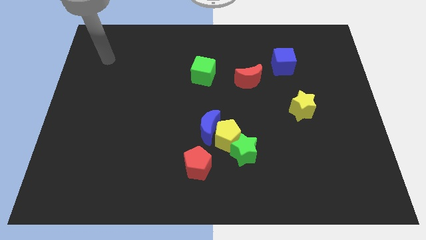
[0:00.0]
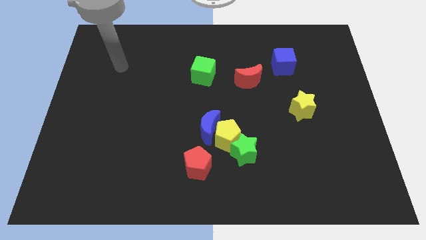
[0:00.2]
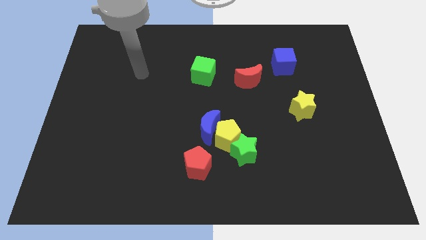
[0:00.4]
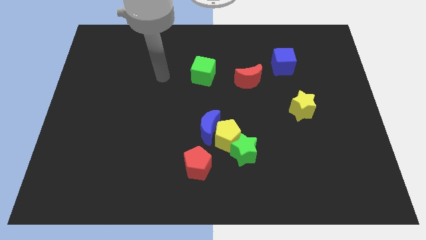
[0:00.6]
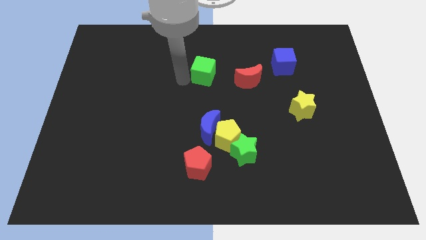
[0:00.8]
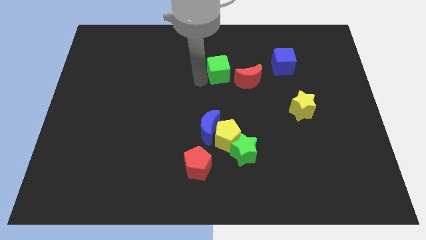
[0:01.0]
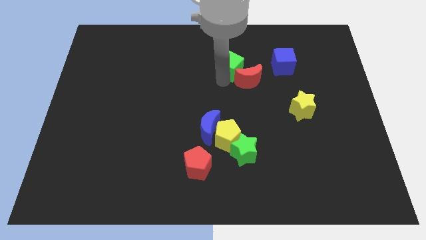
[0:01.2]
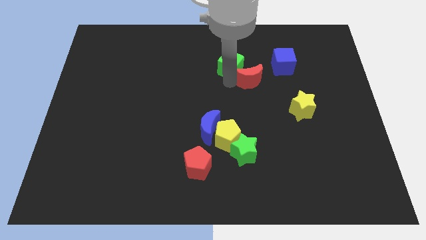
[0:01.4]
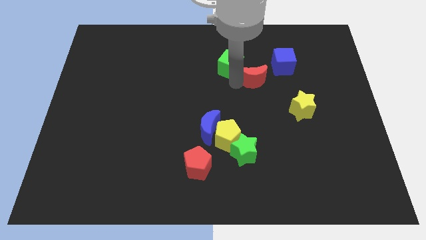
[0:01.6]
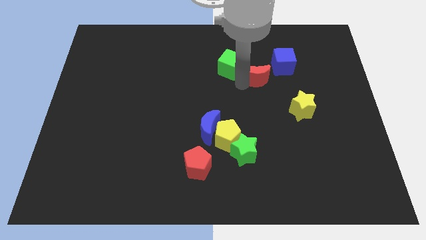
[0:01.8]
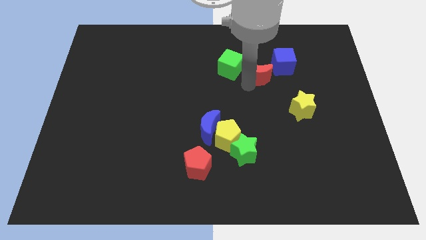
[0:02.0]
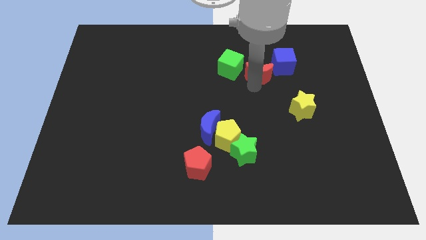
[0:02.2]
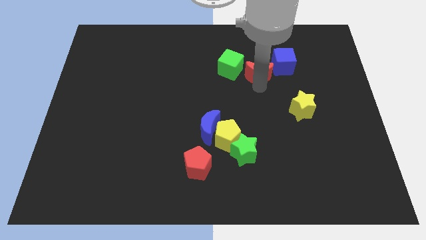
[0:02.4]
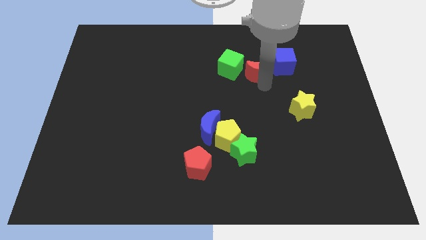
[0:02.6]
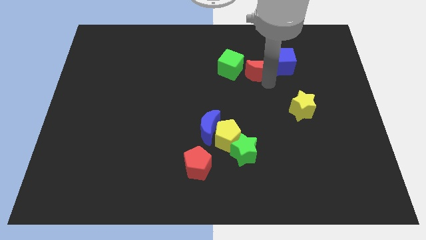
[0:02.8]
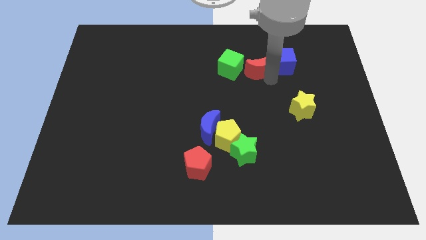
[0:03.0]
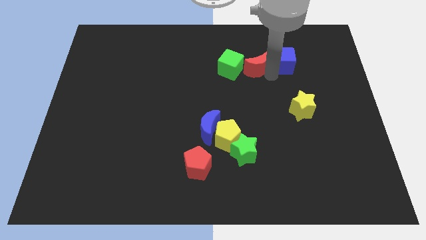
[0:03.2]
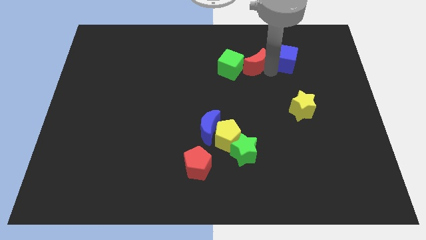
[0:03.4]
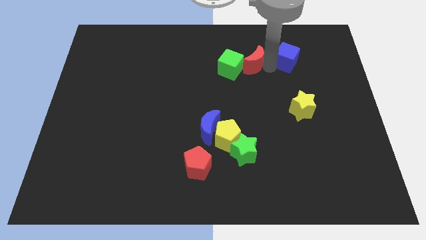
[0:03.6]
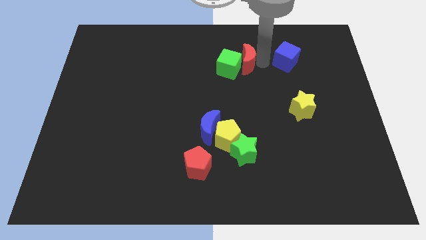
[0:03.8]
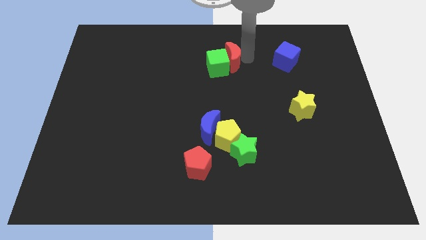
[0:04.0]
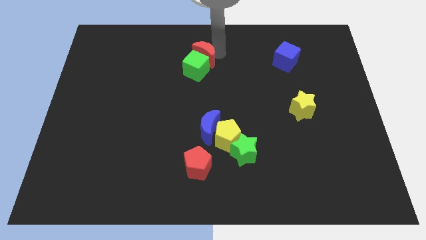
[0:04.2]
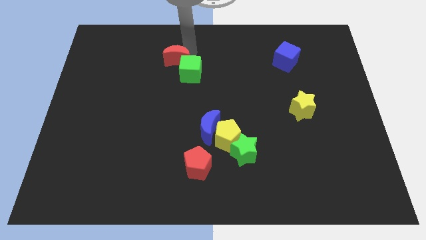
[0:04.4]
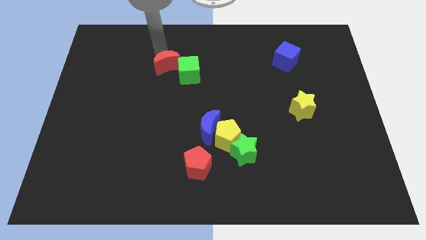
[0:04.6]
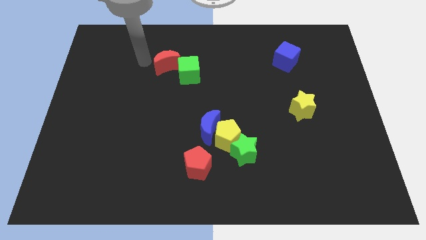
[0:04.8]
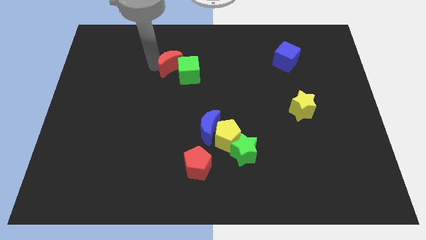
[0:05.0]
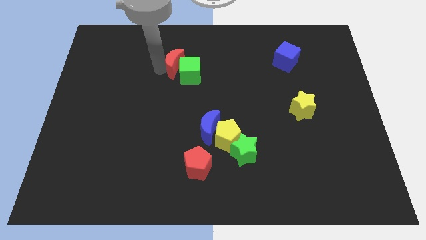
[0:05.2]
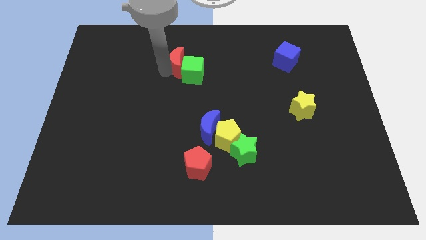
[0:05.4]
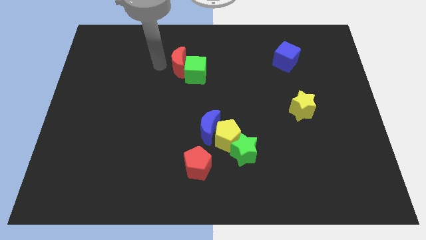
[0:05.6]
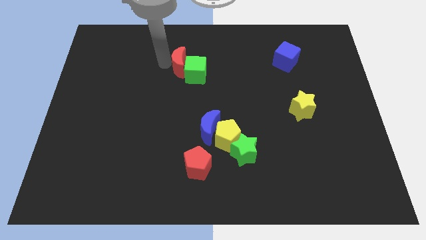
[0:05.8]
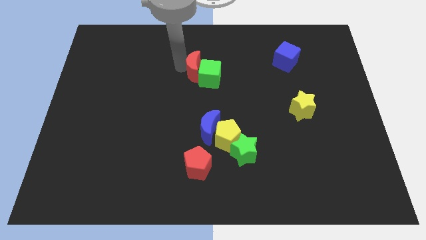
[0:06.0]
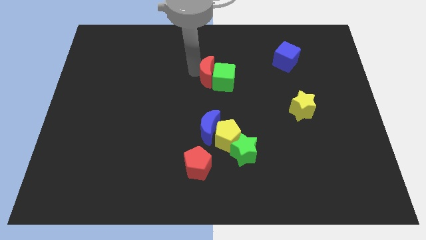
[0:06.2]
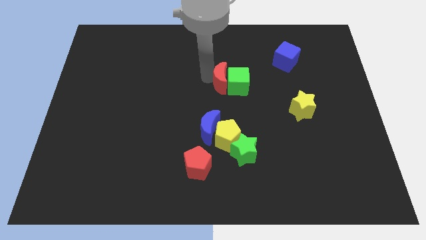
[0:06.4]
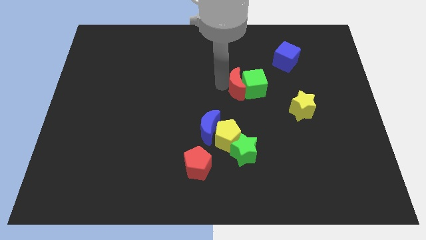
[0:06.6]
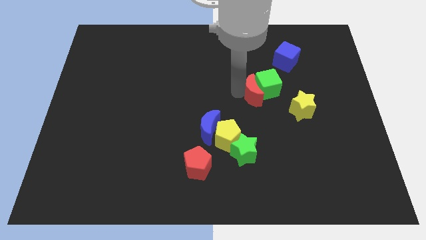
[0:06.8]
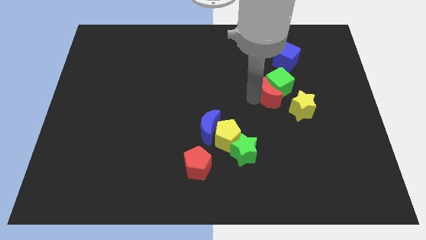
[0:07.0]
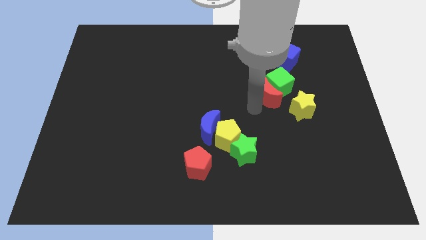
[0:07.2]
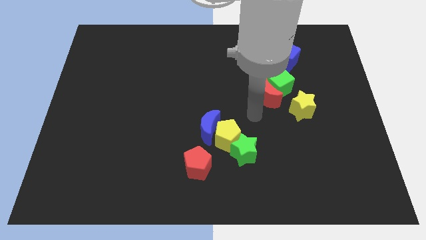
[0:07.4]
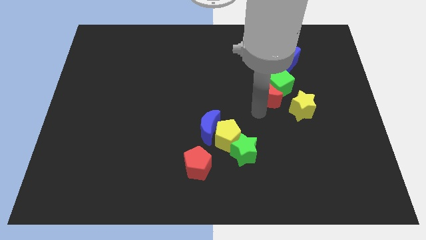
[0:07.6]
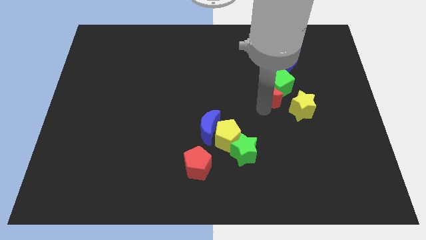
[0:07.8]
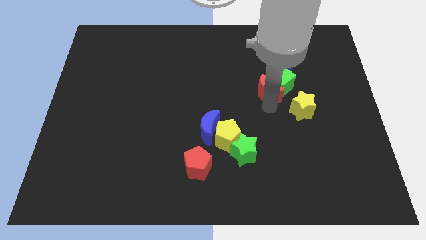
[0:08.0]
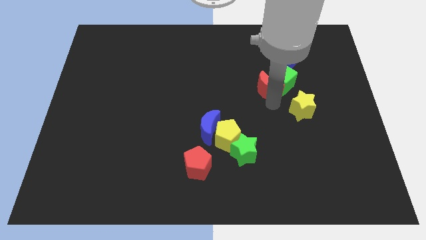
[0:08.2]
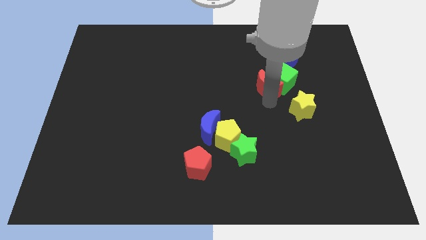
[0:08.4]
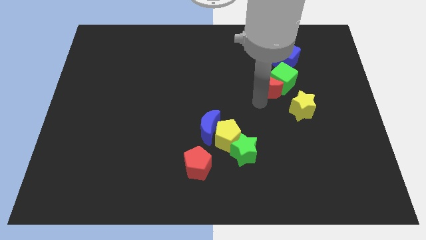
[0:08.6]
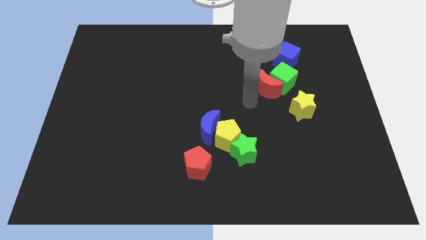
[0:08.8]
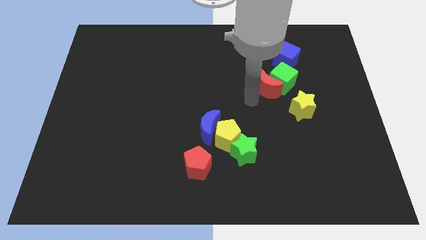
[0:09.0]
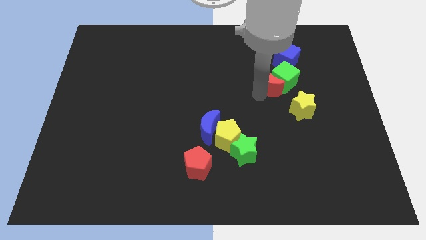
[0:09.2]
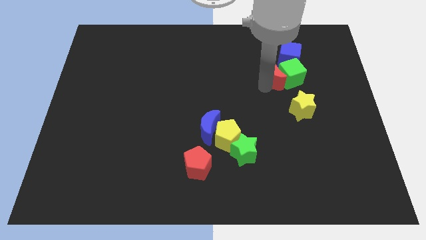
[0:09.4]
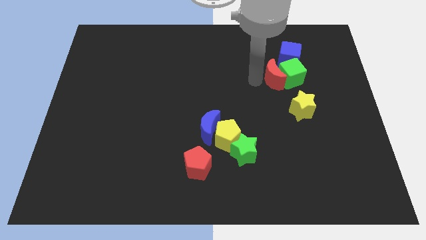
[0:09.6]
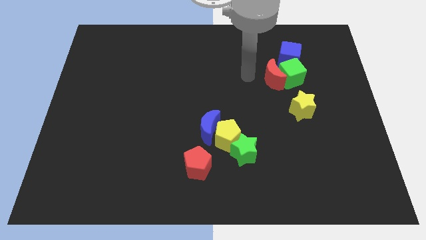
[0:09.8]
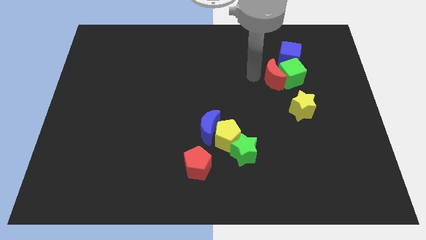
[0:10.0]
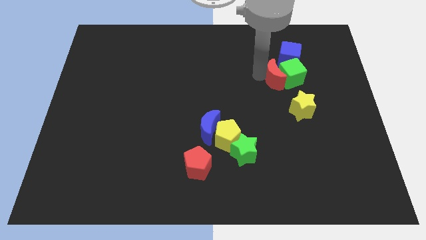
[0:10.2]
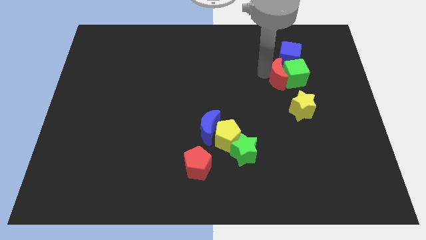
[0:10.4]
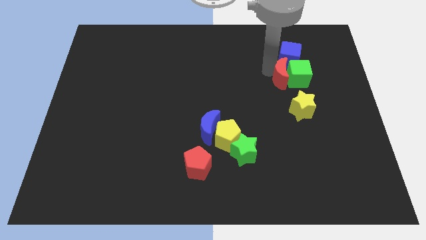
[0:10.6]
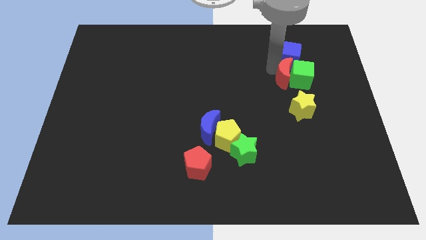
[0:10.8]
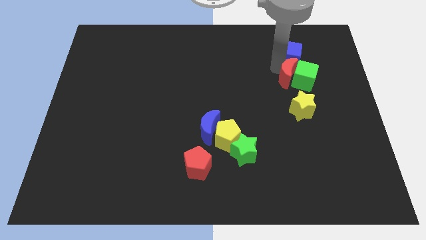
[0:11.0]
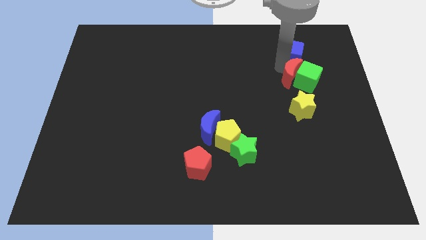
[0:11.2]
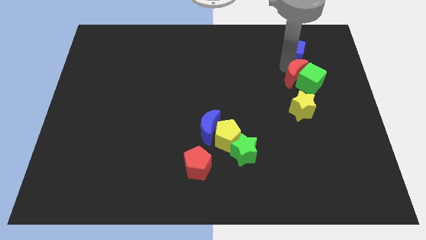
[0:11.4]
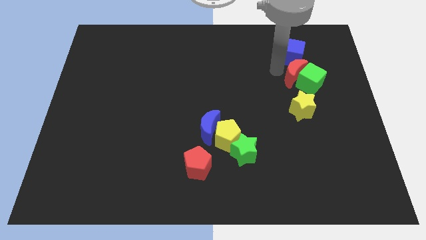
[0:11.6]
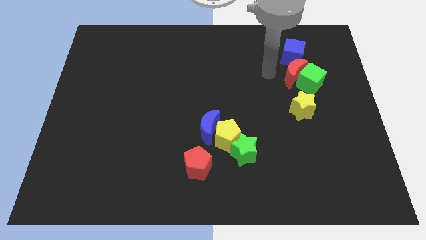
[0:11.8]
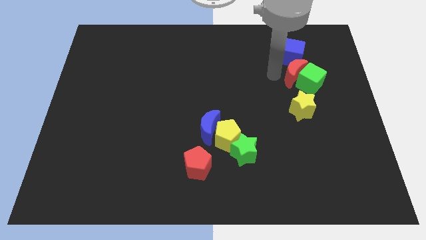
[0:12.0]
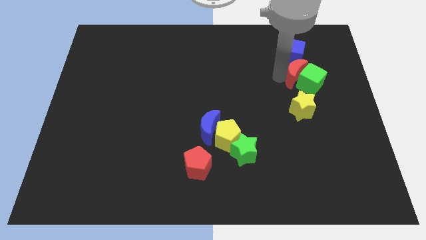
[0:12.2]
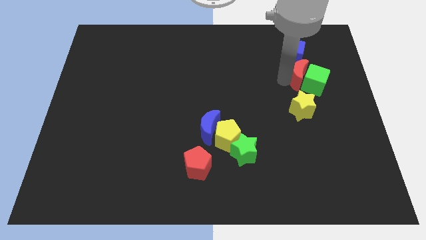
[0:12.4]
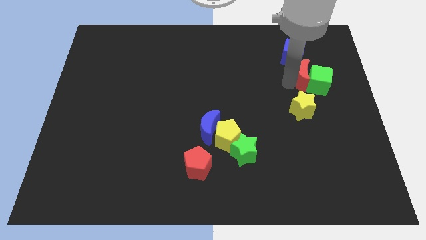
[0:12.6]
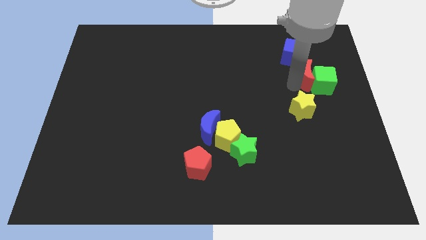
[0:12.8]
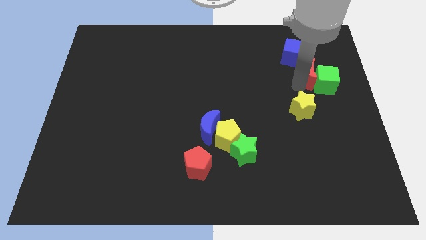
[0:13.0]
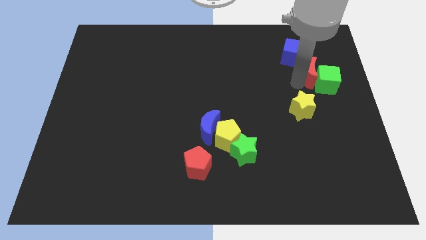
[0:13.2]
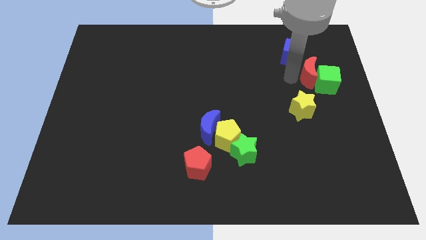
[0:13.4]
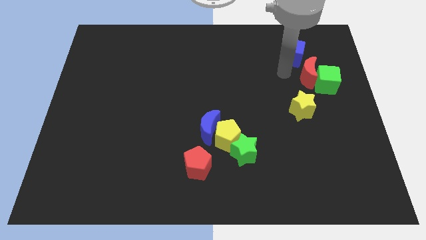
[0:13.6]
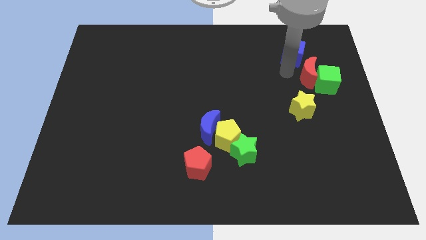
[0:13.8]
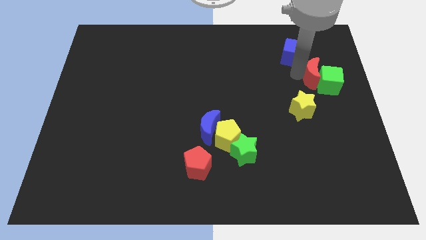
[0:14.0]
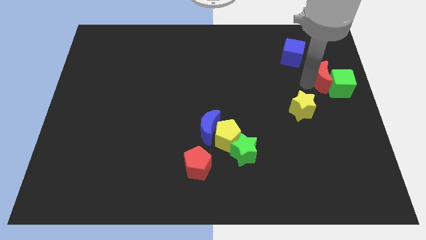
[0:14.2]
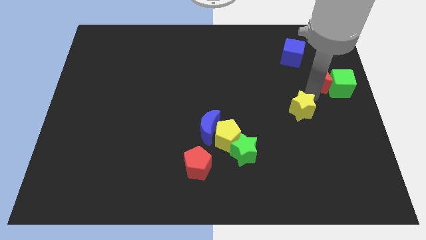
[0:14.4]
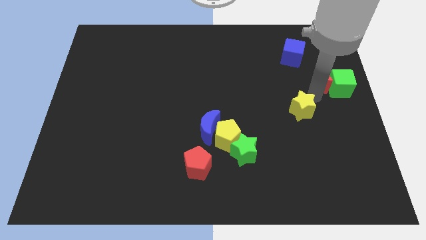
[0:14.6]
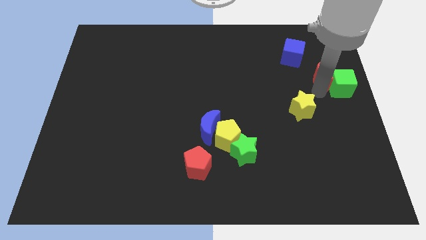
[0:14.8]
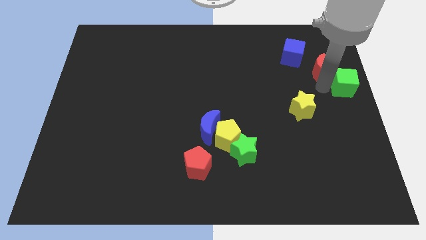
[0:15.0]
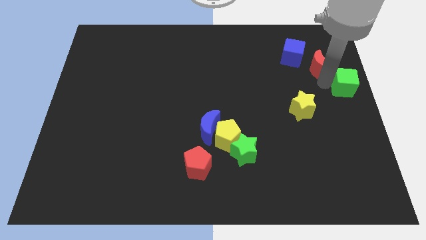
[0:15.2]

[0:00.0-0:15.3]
push the red moon just right of the blue cube
